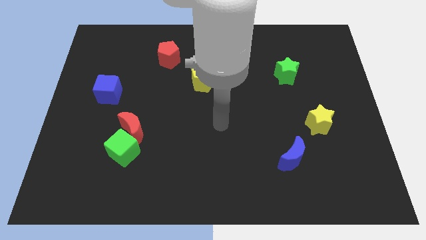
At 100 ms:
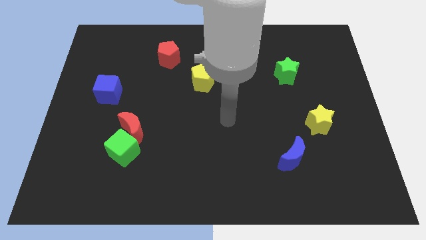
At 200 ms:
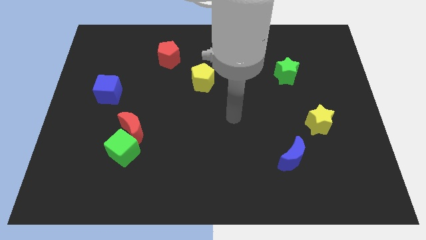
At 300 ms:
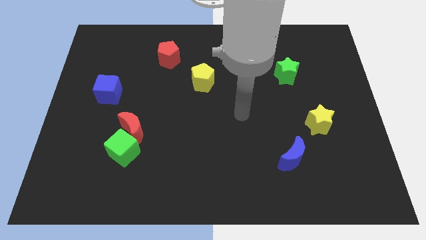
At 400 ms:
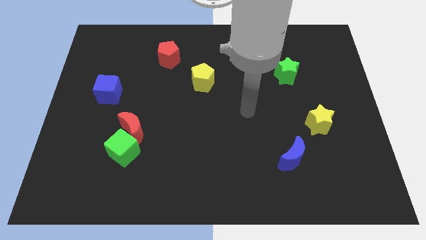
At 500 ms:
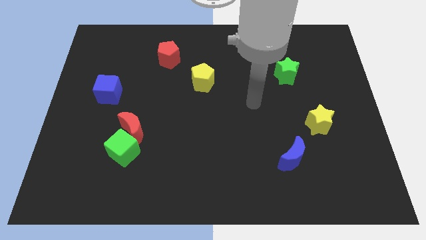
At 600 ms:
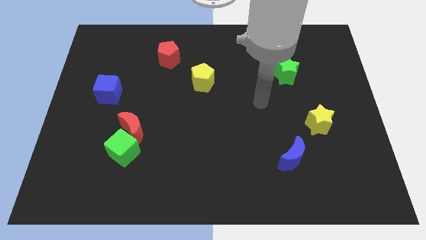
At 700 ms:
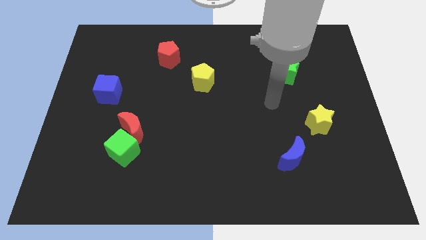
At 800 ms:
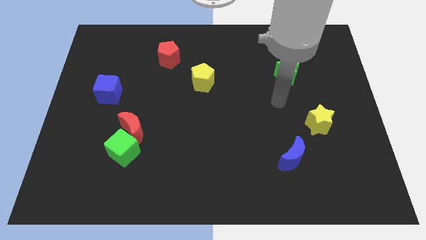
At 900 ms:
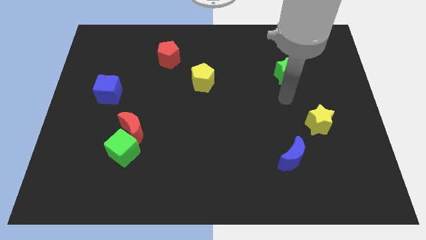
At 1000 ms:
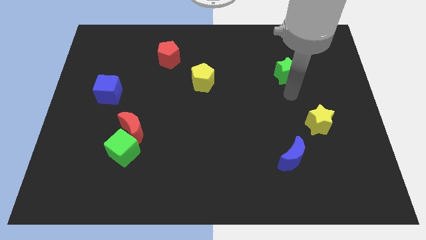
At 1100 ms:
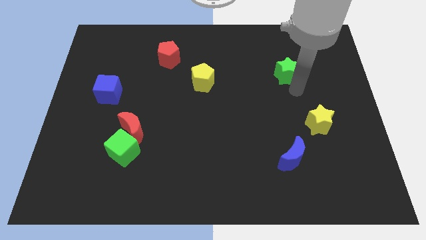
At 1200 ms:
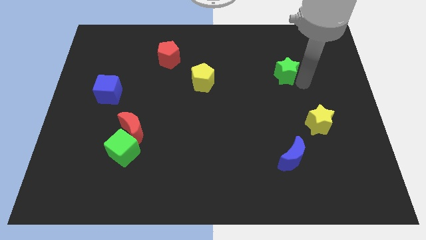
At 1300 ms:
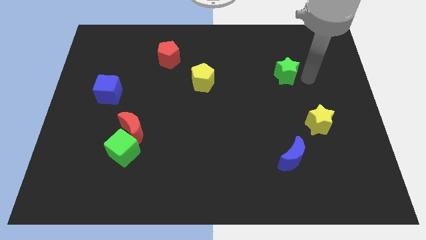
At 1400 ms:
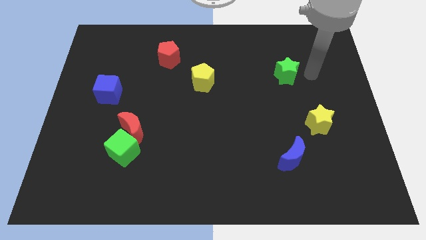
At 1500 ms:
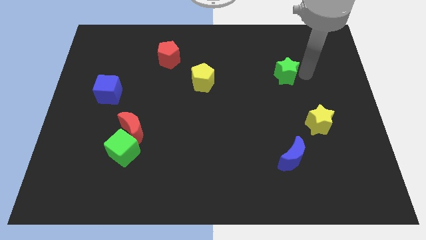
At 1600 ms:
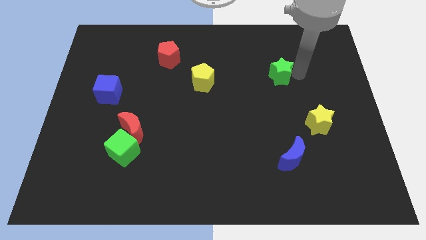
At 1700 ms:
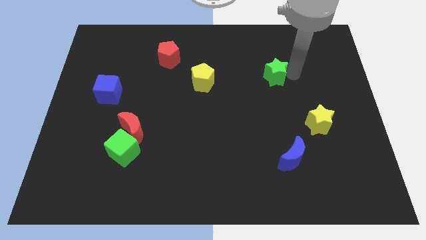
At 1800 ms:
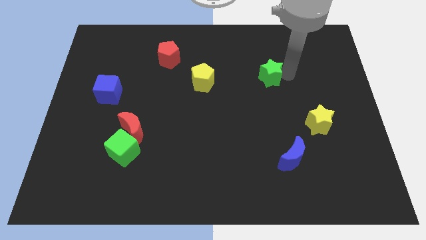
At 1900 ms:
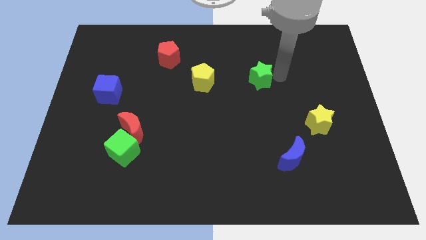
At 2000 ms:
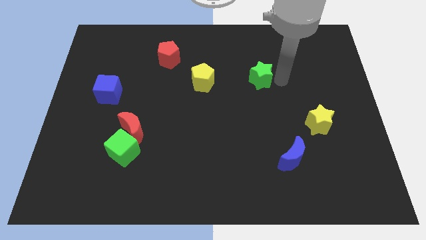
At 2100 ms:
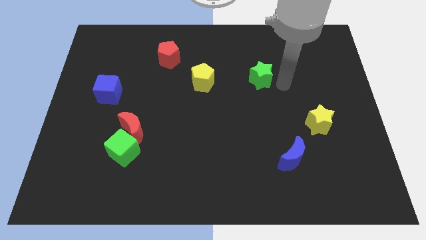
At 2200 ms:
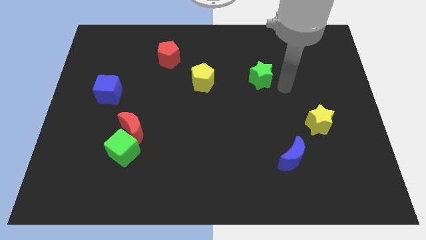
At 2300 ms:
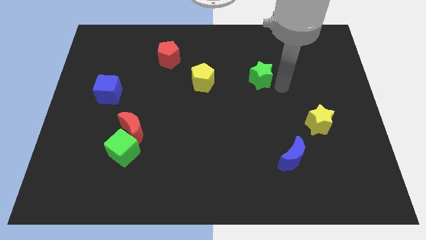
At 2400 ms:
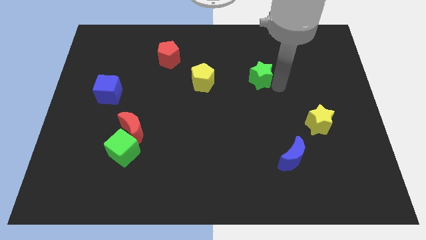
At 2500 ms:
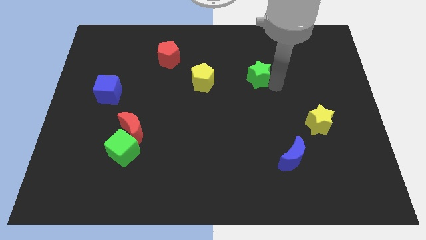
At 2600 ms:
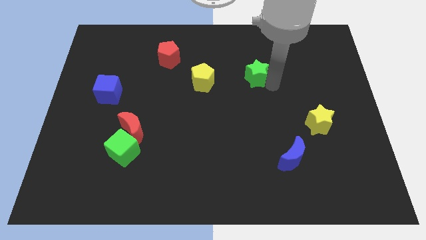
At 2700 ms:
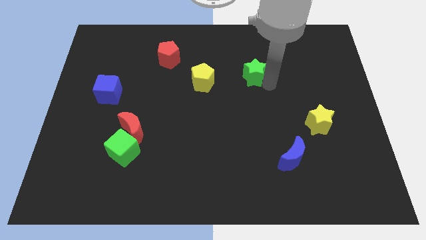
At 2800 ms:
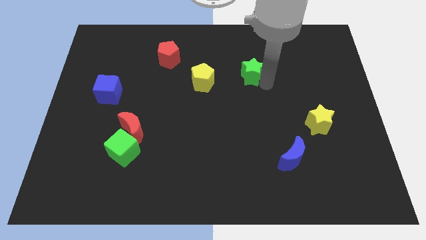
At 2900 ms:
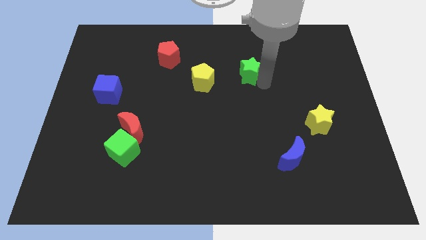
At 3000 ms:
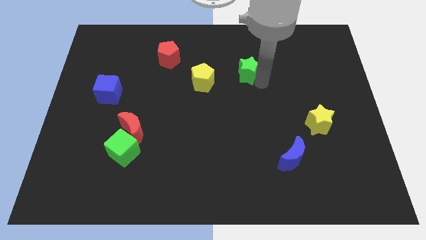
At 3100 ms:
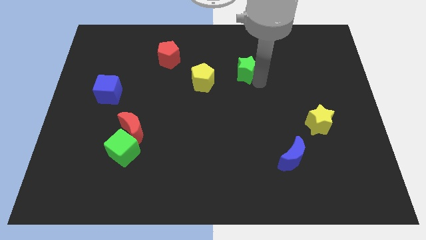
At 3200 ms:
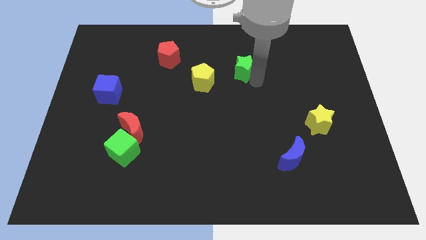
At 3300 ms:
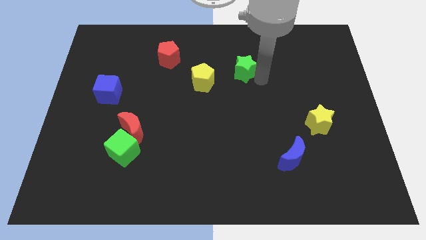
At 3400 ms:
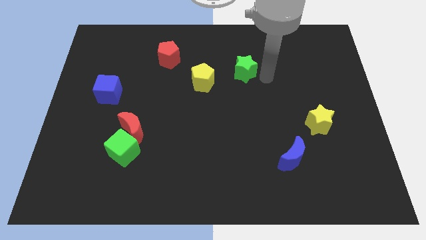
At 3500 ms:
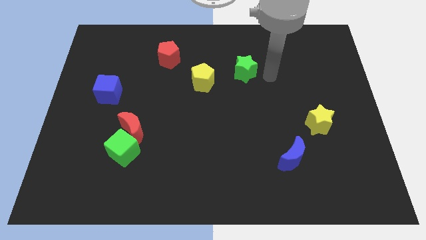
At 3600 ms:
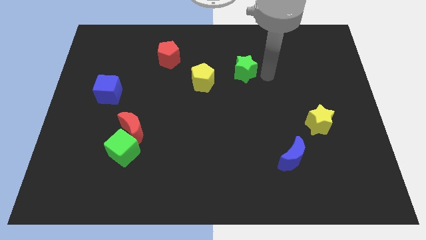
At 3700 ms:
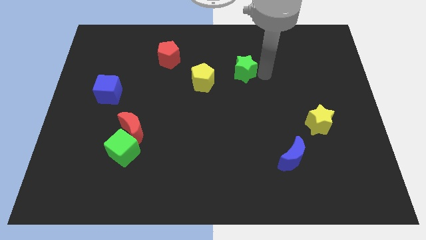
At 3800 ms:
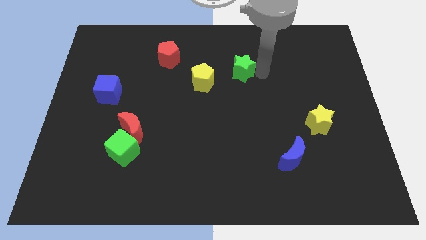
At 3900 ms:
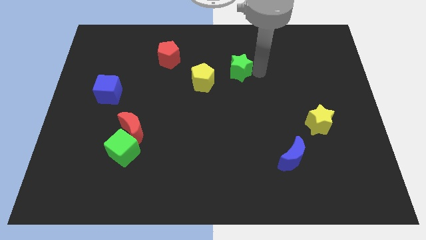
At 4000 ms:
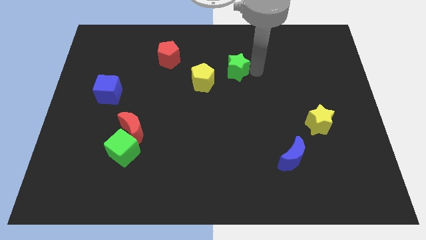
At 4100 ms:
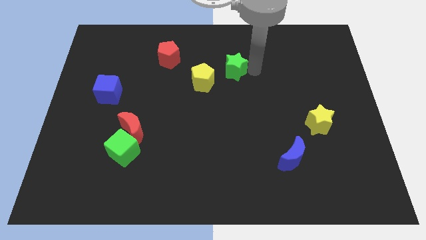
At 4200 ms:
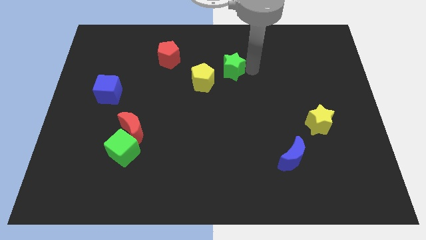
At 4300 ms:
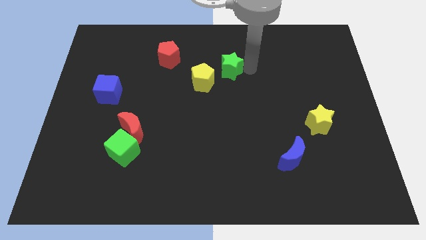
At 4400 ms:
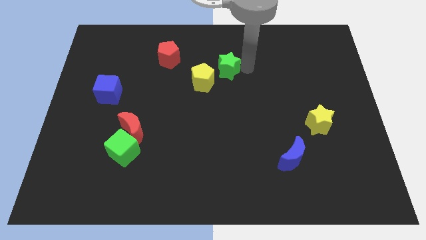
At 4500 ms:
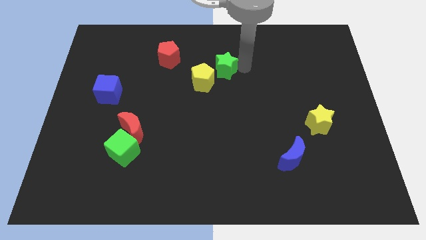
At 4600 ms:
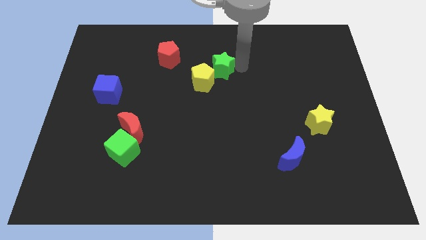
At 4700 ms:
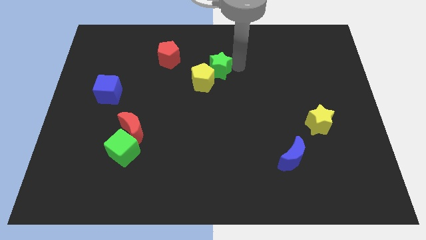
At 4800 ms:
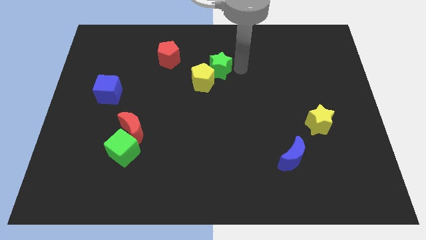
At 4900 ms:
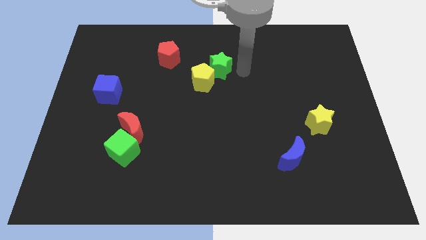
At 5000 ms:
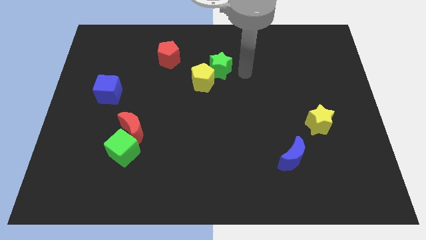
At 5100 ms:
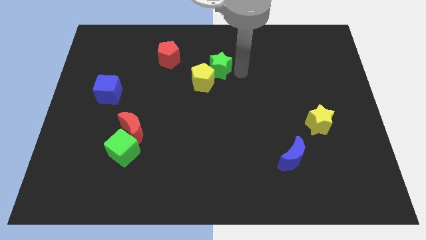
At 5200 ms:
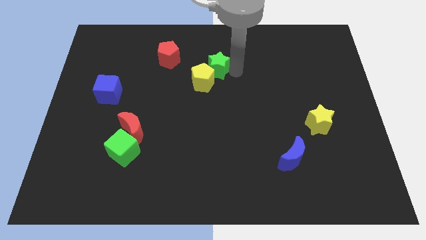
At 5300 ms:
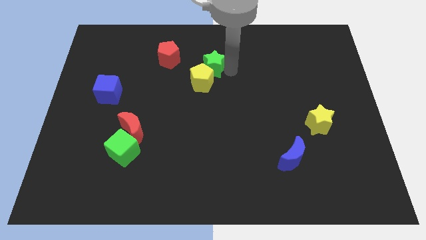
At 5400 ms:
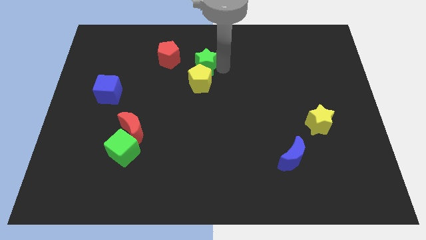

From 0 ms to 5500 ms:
push the green star to the left

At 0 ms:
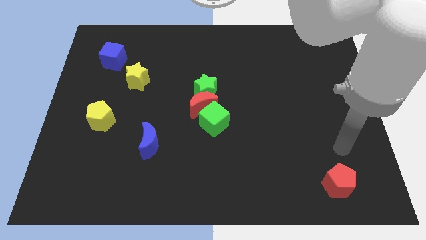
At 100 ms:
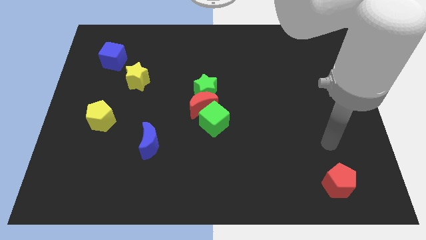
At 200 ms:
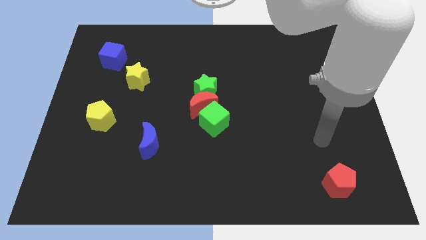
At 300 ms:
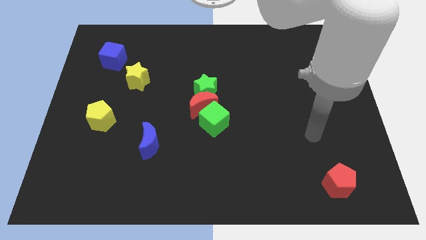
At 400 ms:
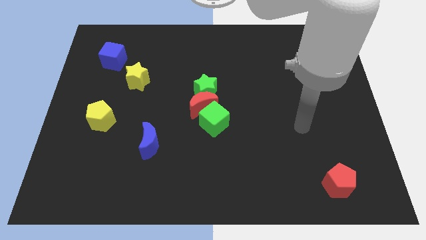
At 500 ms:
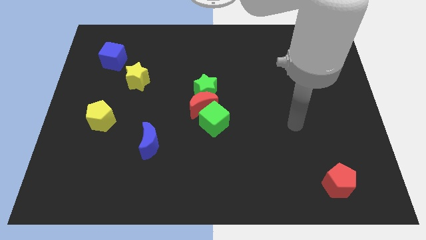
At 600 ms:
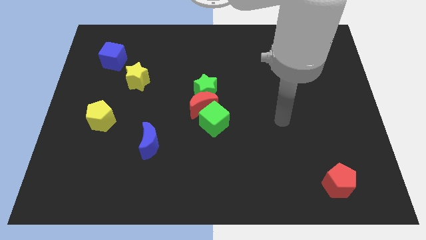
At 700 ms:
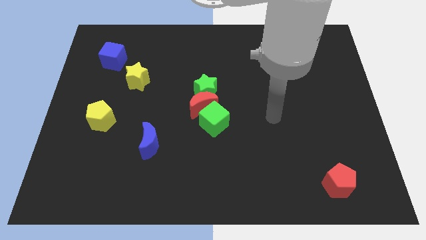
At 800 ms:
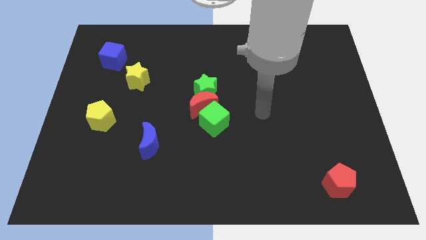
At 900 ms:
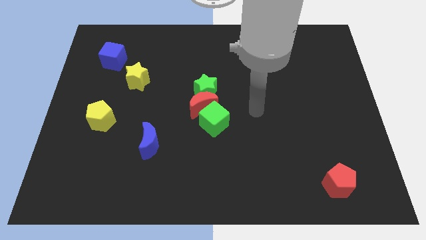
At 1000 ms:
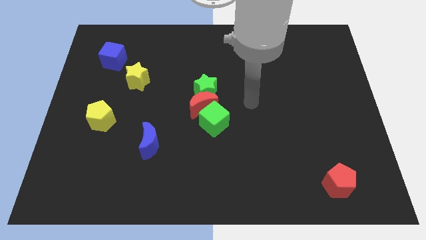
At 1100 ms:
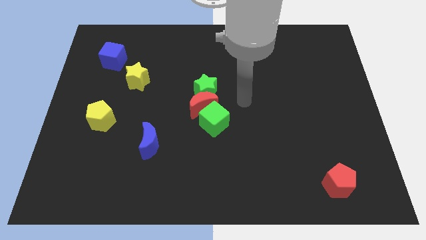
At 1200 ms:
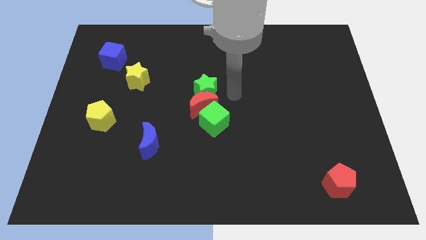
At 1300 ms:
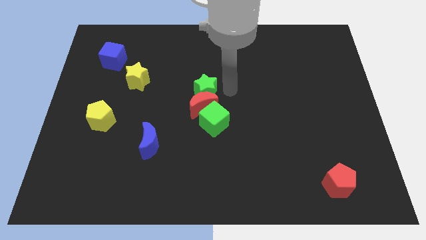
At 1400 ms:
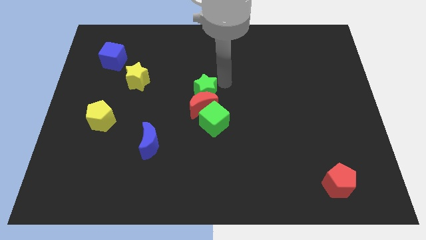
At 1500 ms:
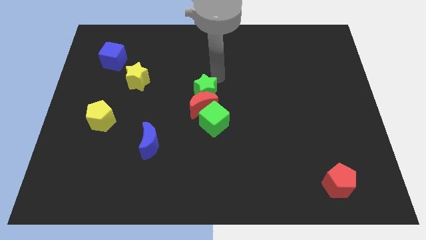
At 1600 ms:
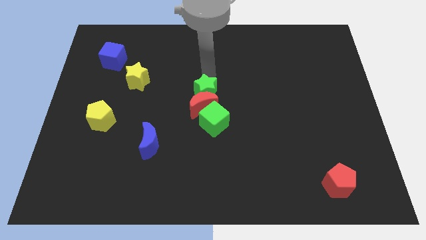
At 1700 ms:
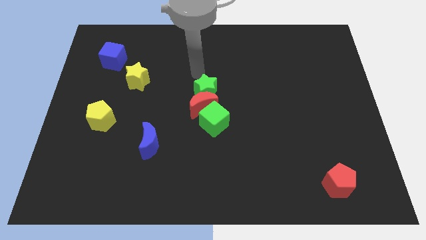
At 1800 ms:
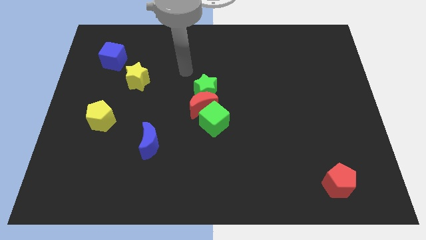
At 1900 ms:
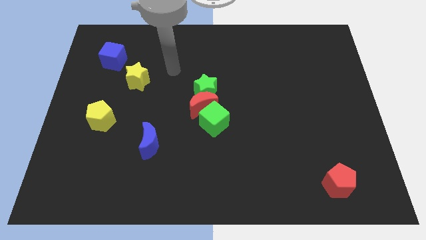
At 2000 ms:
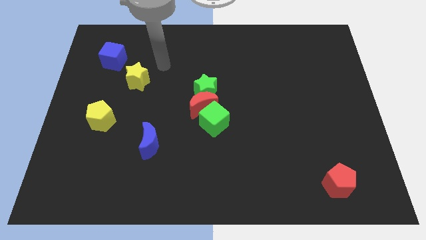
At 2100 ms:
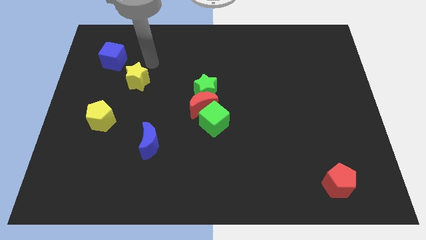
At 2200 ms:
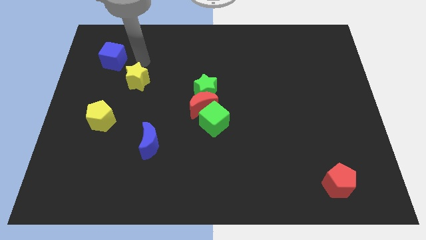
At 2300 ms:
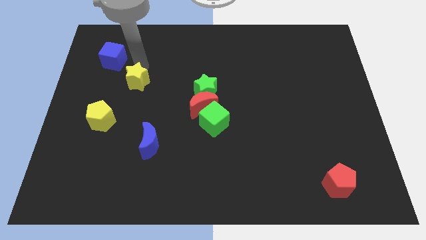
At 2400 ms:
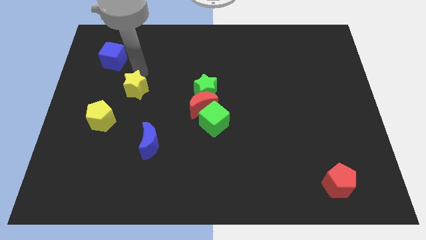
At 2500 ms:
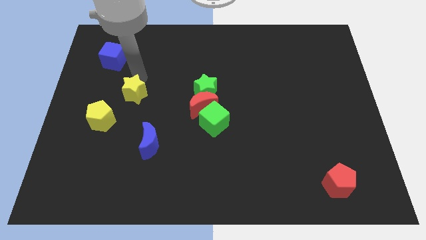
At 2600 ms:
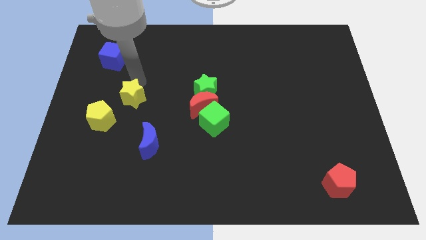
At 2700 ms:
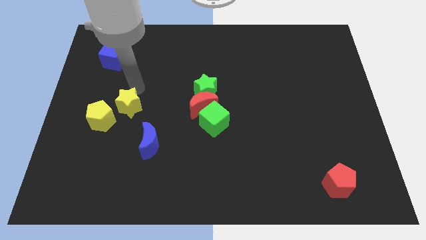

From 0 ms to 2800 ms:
push the yellow star a little bit down
